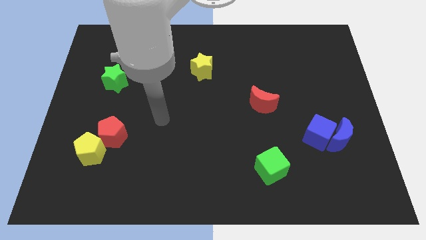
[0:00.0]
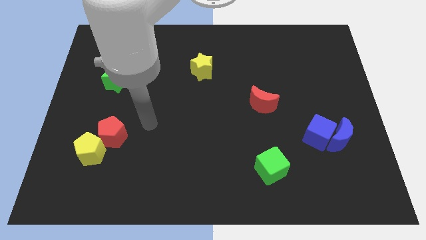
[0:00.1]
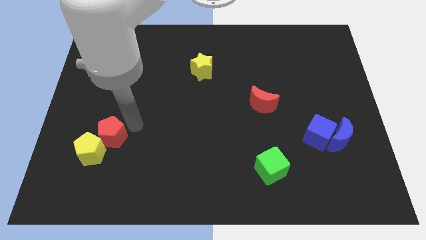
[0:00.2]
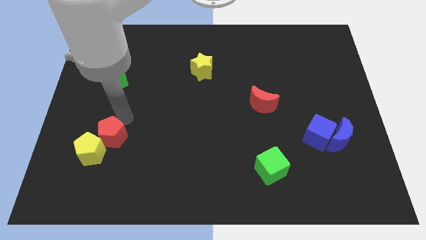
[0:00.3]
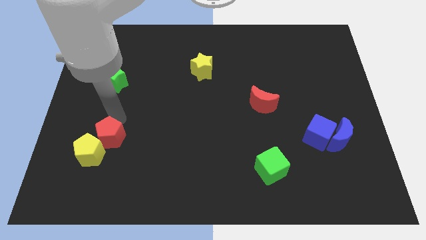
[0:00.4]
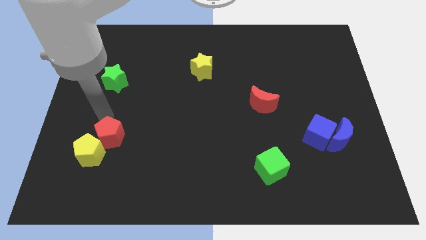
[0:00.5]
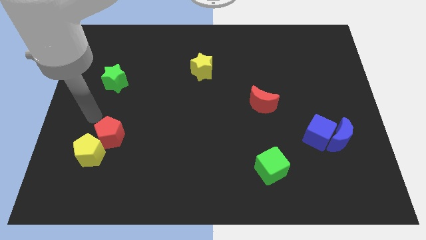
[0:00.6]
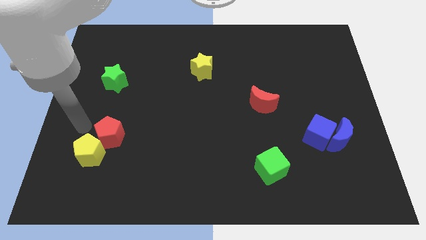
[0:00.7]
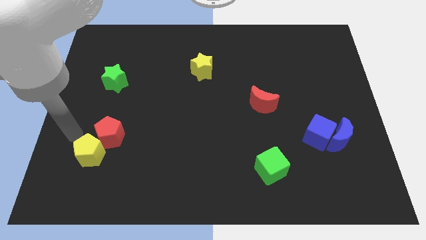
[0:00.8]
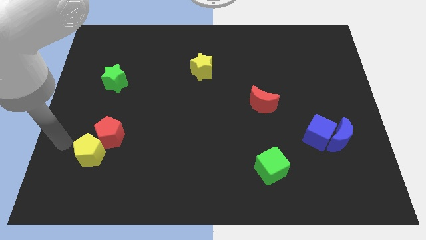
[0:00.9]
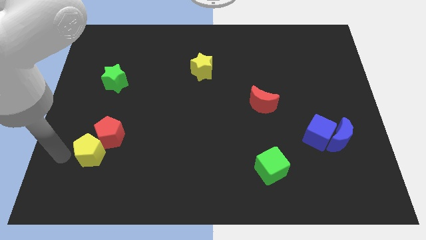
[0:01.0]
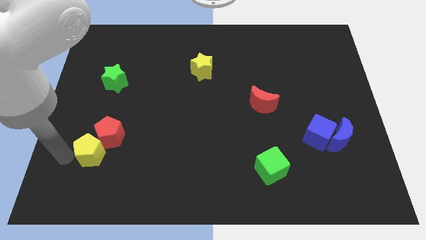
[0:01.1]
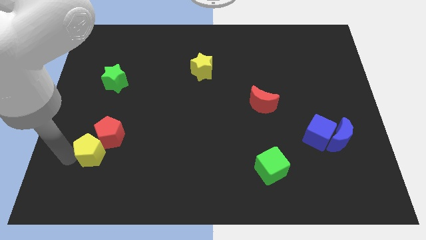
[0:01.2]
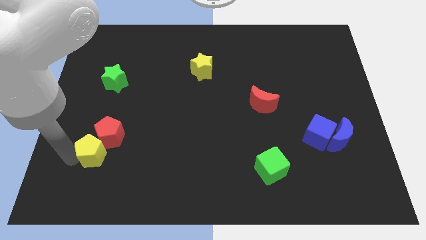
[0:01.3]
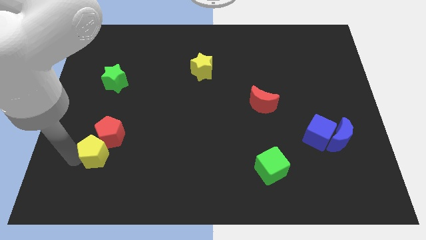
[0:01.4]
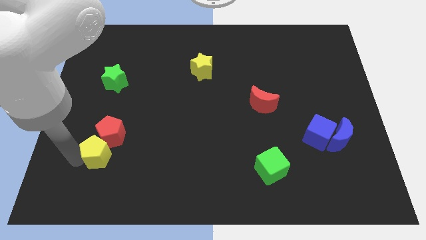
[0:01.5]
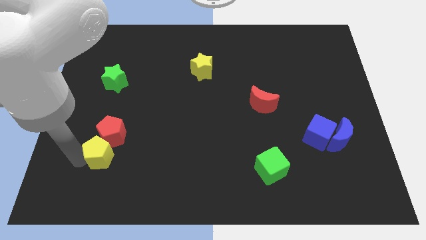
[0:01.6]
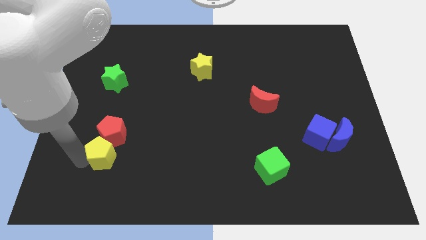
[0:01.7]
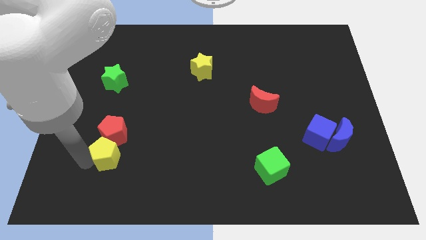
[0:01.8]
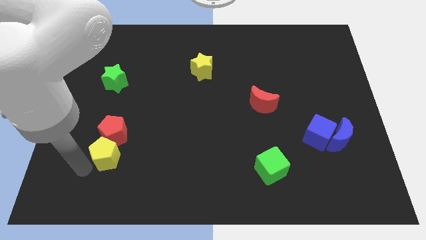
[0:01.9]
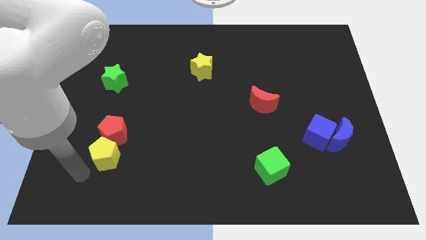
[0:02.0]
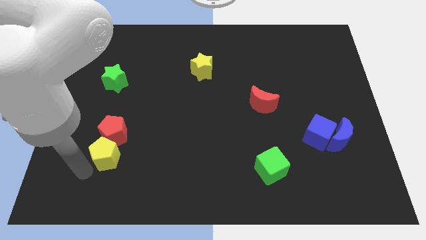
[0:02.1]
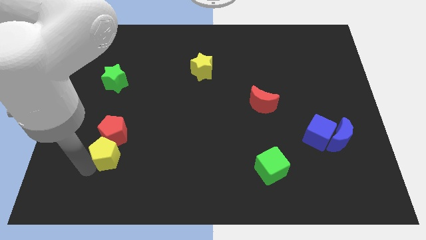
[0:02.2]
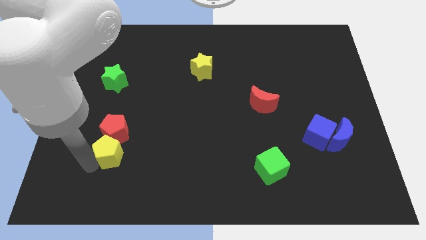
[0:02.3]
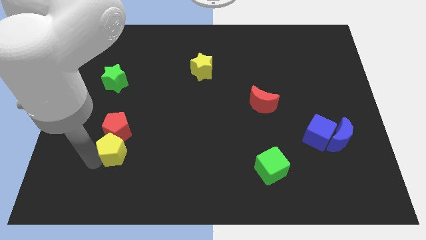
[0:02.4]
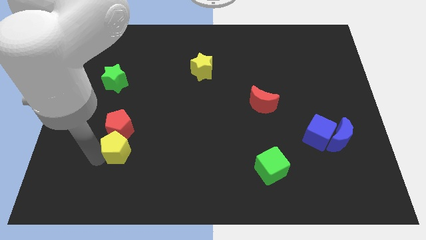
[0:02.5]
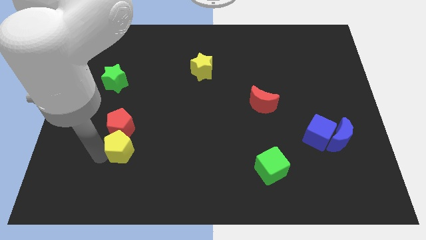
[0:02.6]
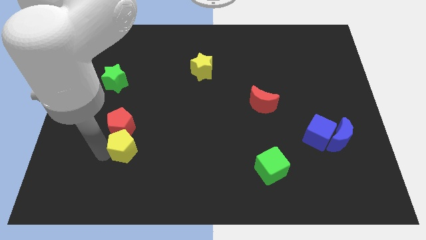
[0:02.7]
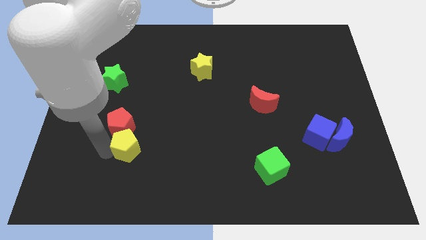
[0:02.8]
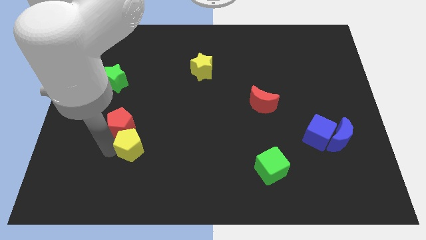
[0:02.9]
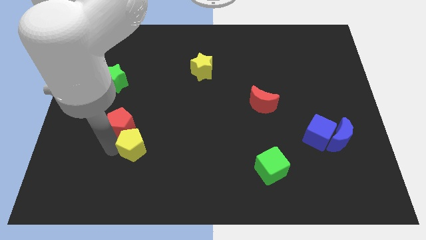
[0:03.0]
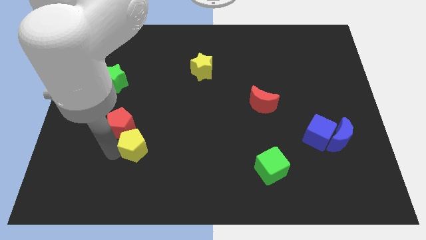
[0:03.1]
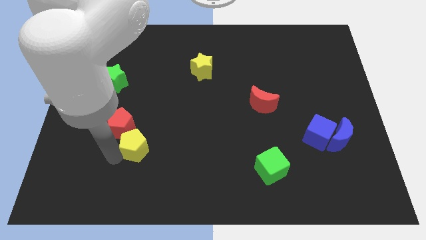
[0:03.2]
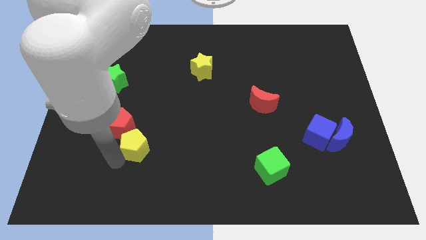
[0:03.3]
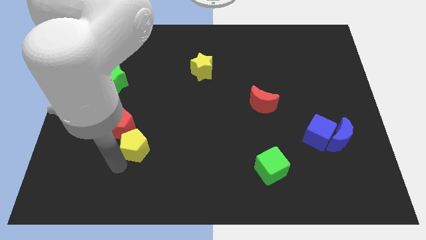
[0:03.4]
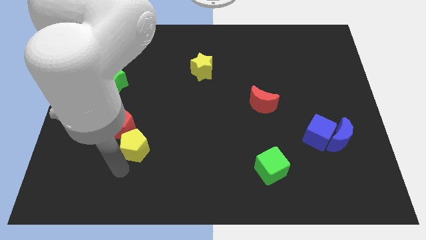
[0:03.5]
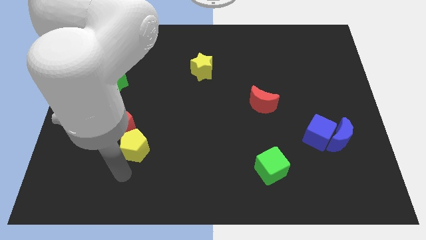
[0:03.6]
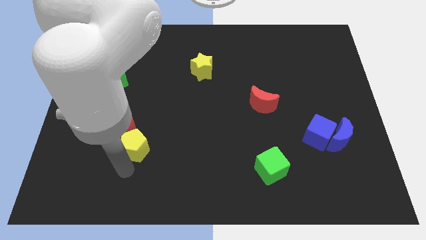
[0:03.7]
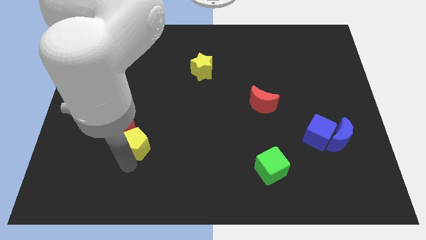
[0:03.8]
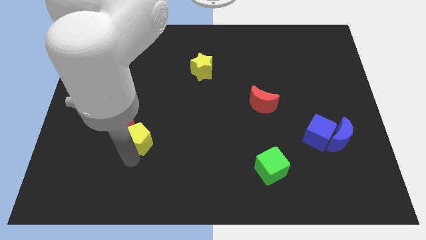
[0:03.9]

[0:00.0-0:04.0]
slightly push the yellow pentagon upwards and right

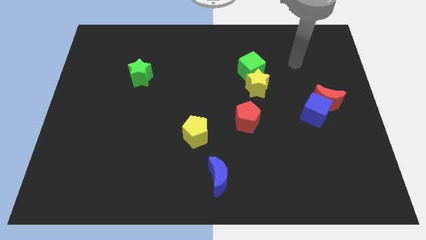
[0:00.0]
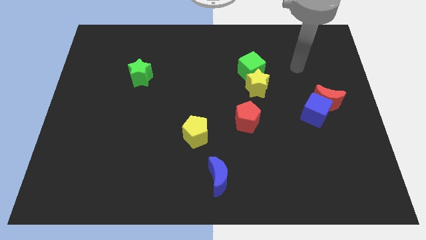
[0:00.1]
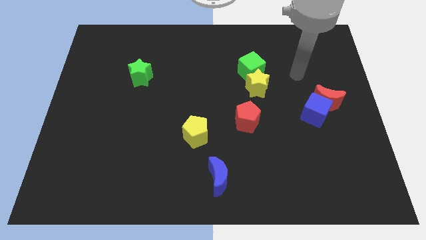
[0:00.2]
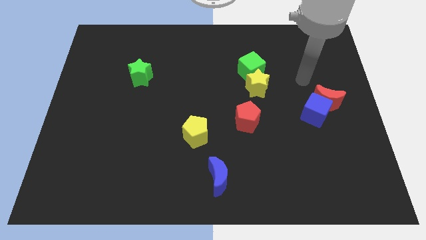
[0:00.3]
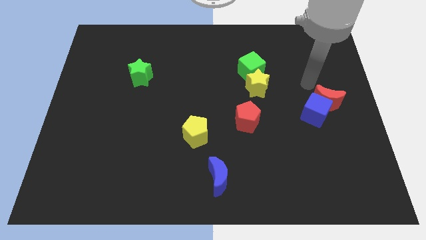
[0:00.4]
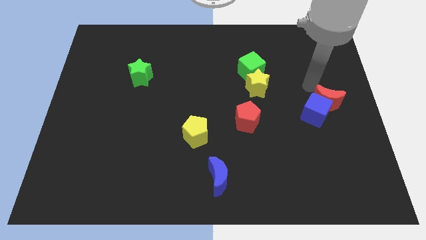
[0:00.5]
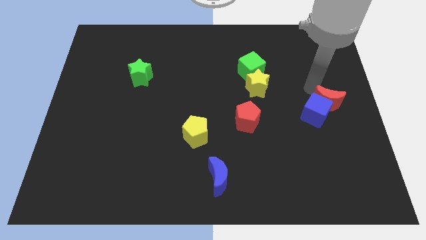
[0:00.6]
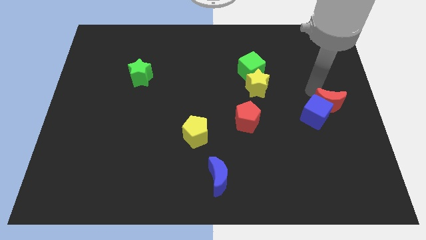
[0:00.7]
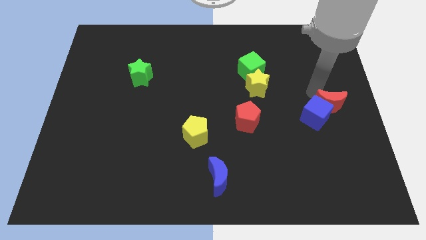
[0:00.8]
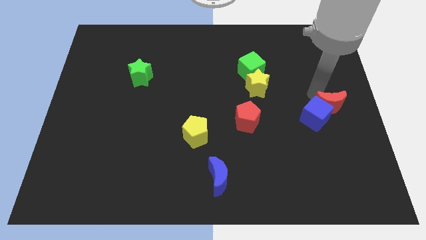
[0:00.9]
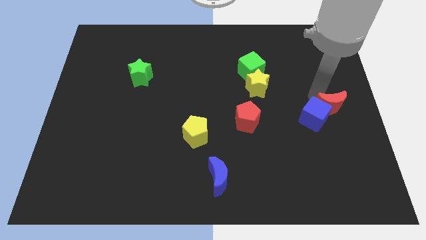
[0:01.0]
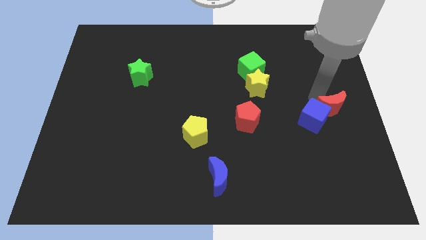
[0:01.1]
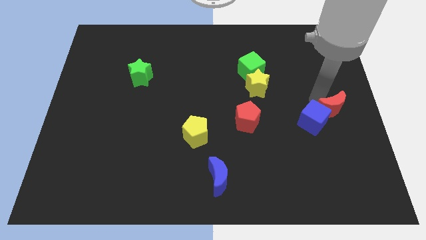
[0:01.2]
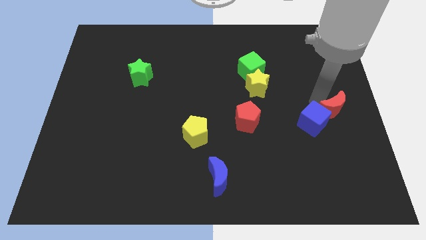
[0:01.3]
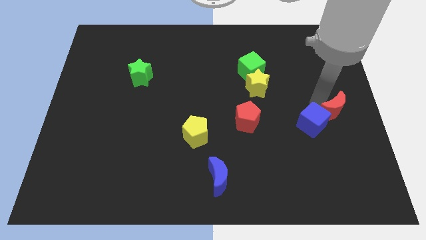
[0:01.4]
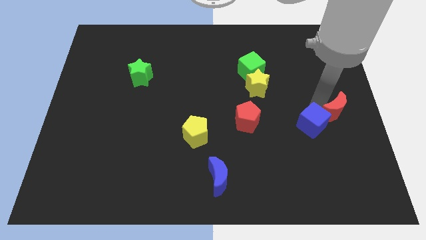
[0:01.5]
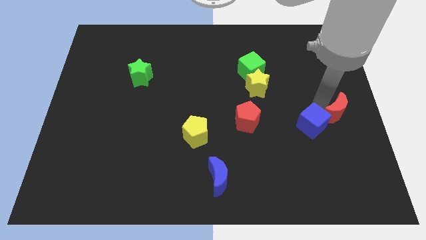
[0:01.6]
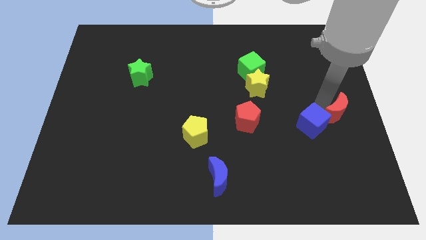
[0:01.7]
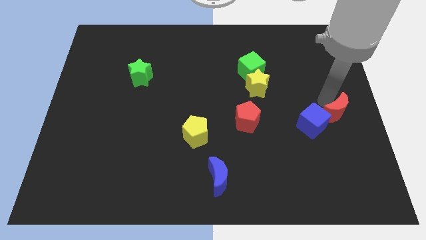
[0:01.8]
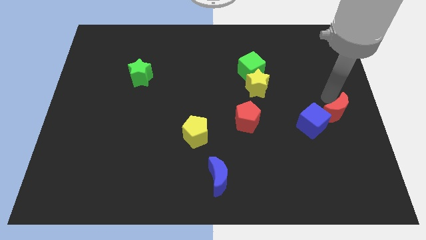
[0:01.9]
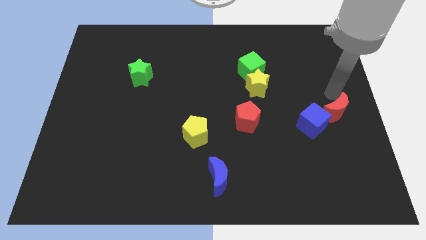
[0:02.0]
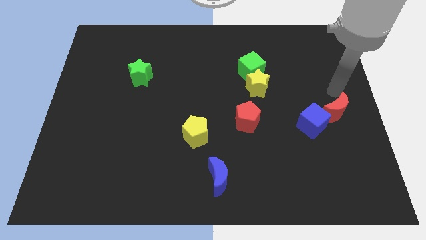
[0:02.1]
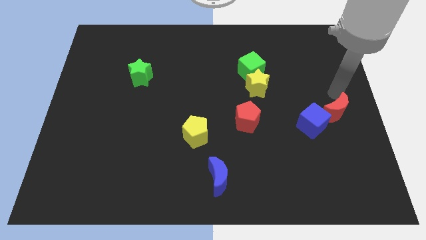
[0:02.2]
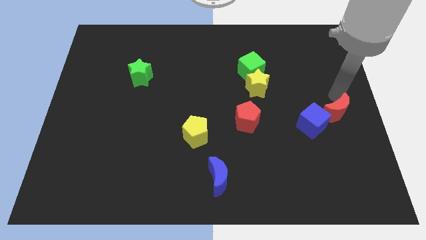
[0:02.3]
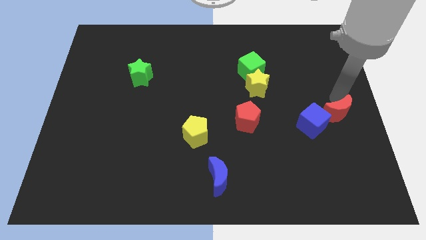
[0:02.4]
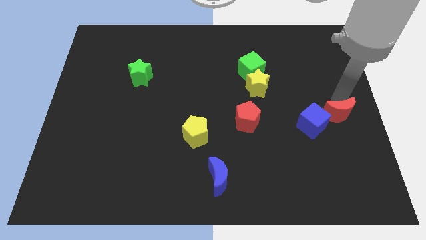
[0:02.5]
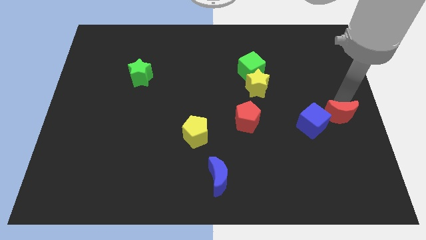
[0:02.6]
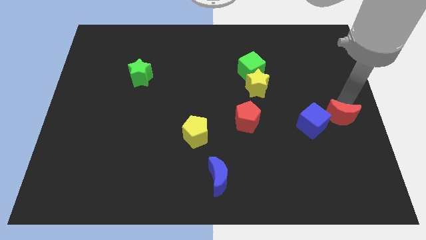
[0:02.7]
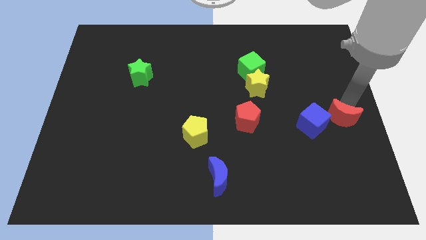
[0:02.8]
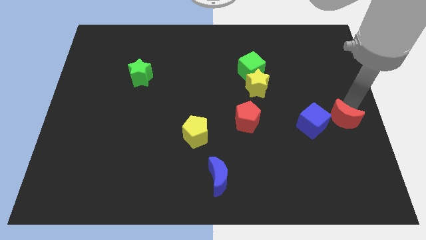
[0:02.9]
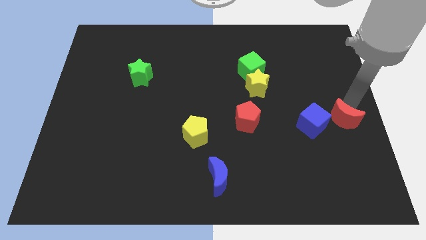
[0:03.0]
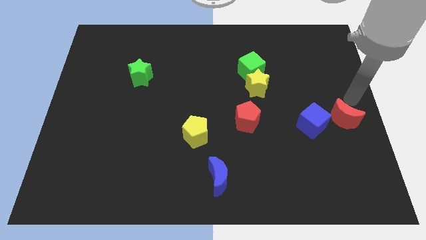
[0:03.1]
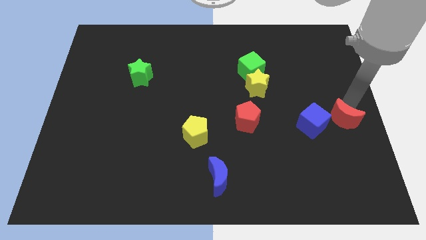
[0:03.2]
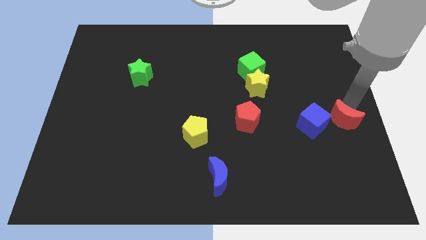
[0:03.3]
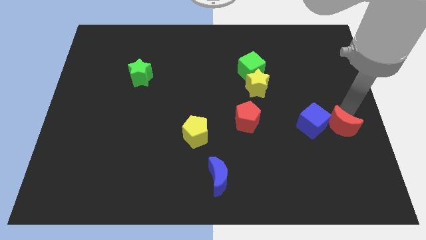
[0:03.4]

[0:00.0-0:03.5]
slightly slide the red moon down

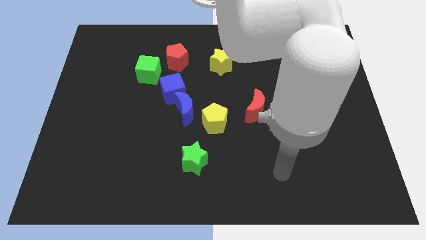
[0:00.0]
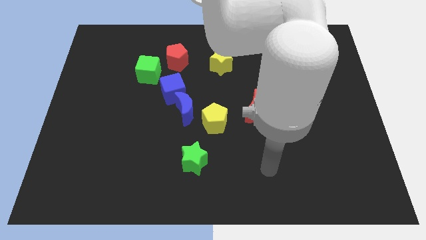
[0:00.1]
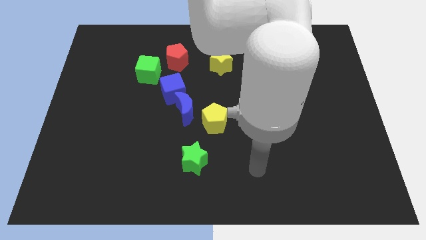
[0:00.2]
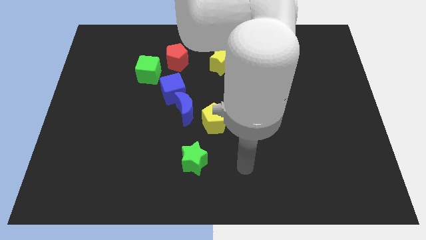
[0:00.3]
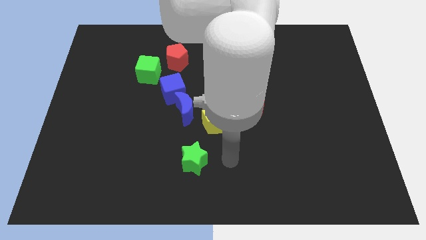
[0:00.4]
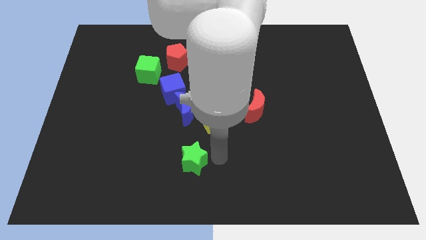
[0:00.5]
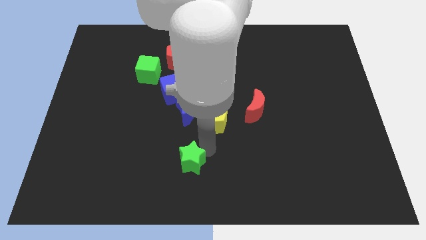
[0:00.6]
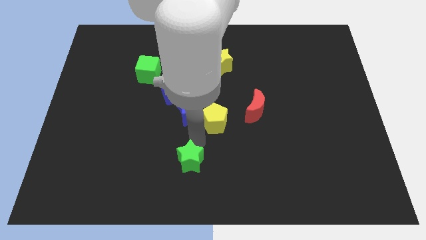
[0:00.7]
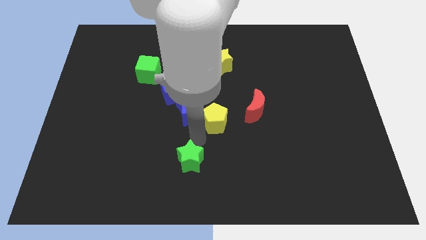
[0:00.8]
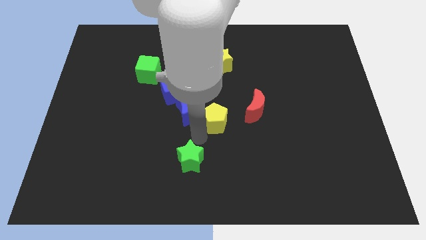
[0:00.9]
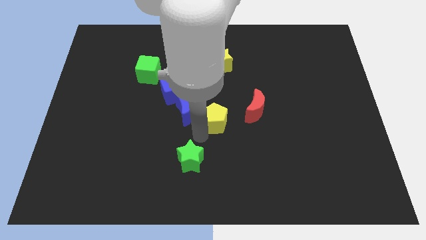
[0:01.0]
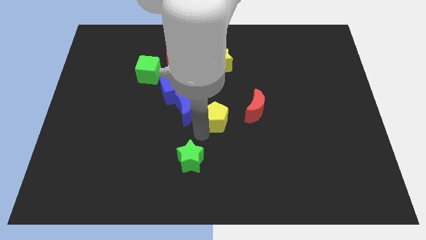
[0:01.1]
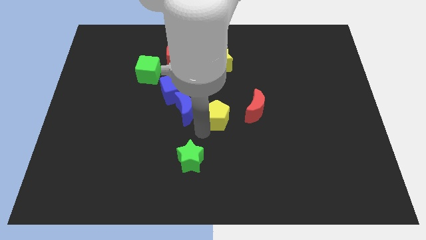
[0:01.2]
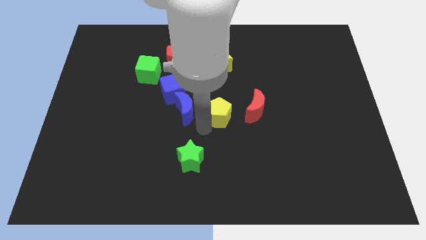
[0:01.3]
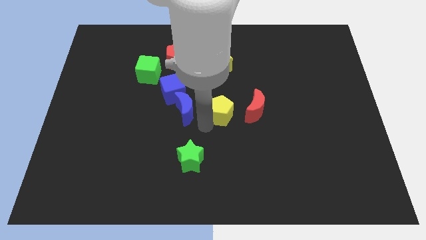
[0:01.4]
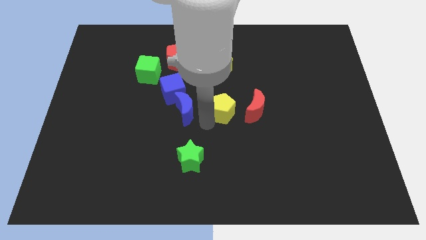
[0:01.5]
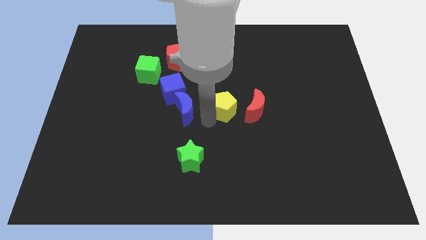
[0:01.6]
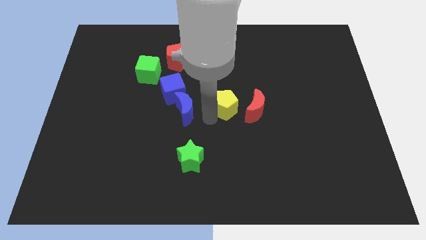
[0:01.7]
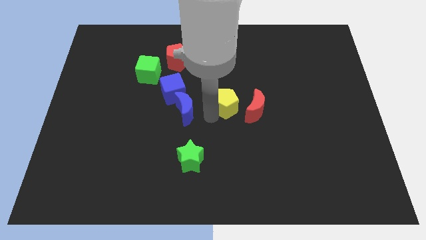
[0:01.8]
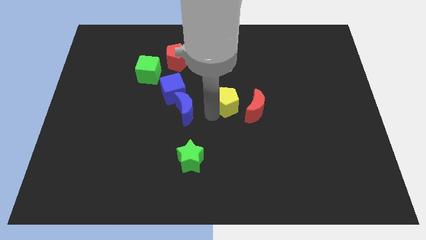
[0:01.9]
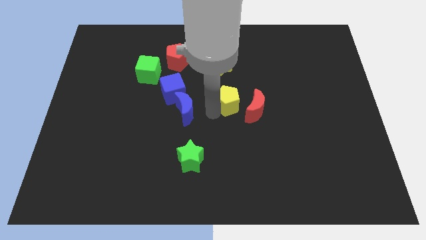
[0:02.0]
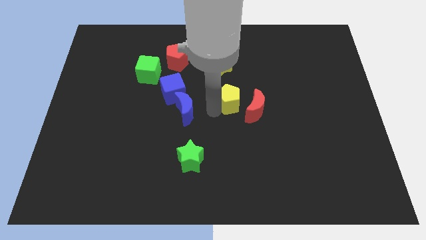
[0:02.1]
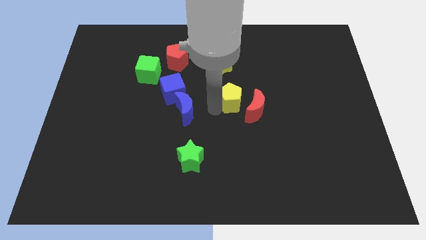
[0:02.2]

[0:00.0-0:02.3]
move the yellow pentagon diagonally upwards and to the right a little bit
